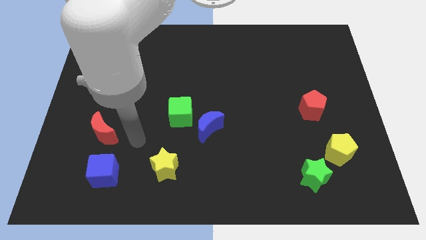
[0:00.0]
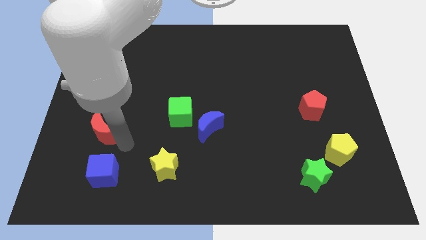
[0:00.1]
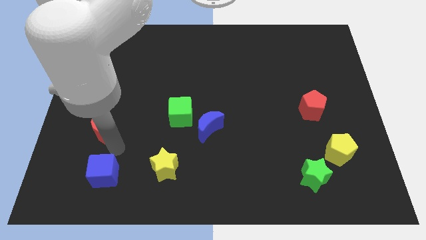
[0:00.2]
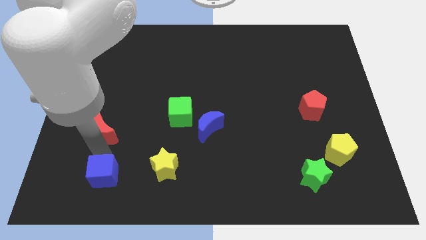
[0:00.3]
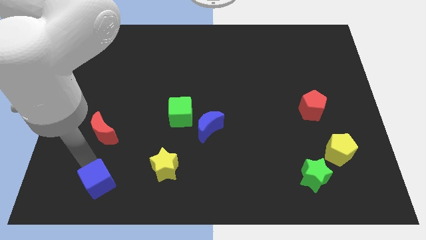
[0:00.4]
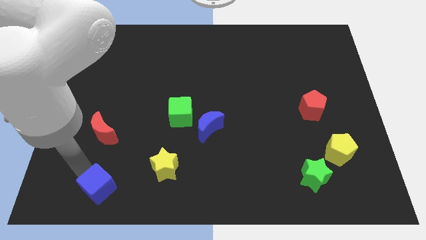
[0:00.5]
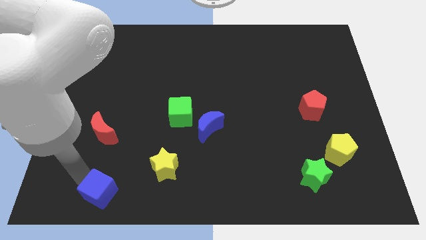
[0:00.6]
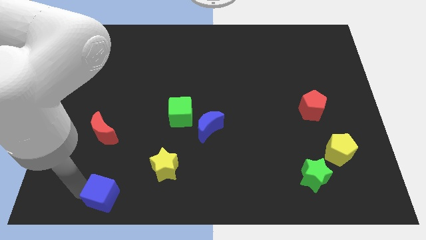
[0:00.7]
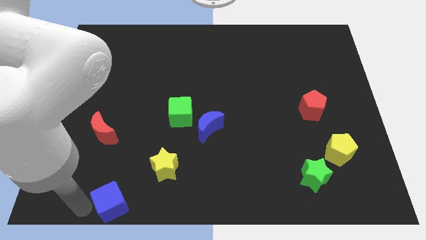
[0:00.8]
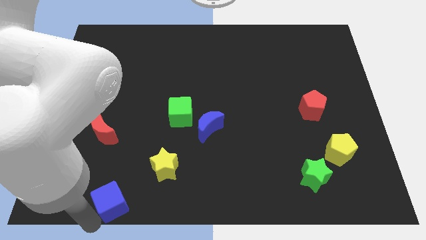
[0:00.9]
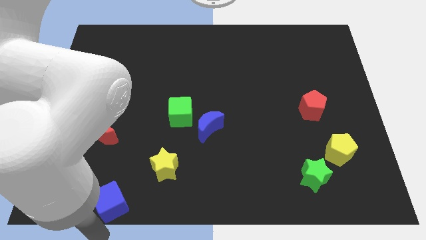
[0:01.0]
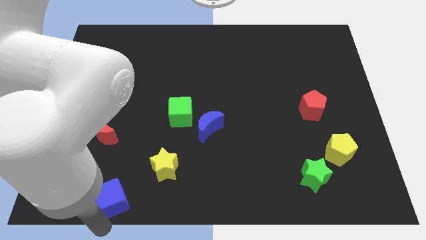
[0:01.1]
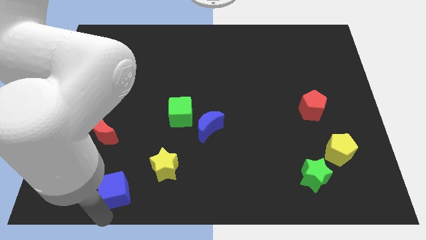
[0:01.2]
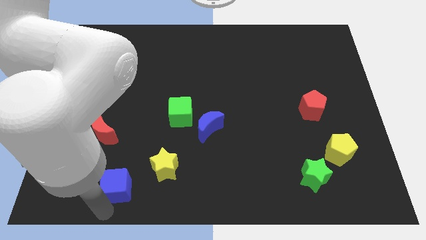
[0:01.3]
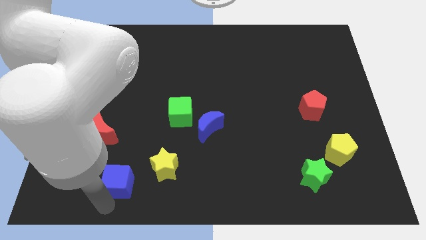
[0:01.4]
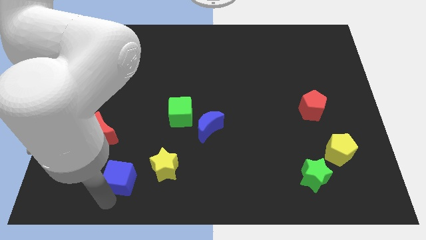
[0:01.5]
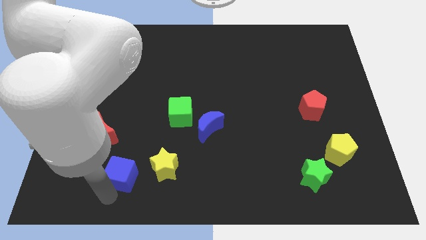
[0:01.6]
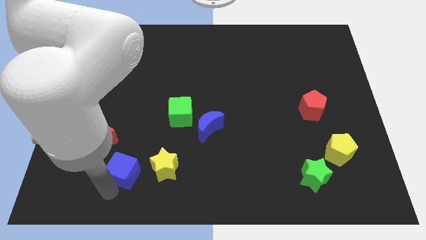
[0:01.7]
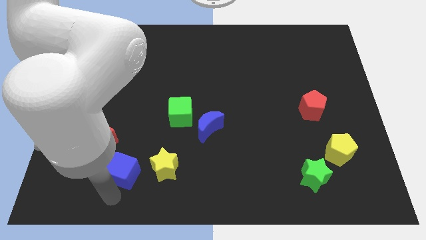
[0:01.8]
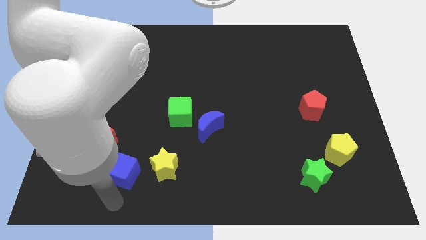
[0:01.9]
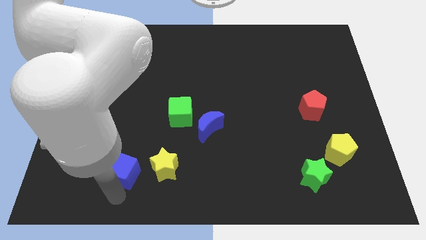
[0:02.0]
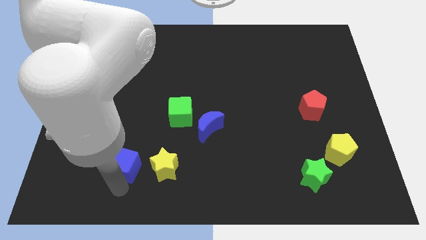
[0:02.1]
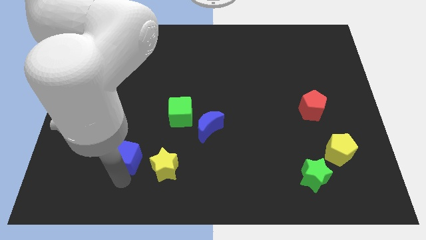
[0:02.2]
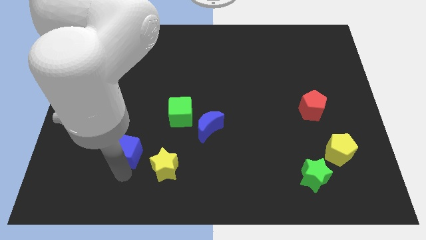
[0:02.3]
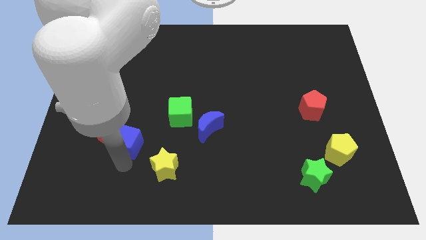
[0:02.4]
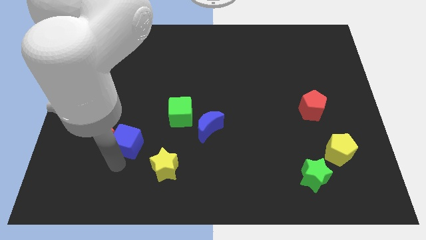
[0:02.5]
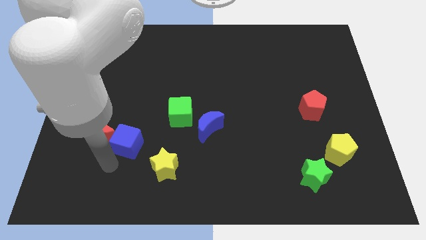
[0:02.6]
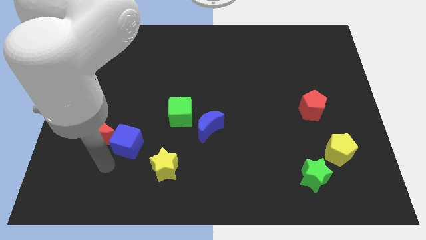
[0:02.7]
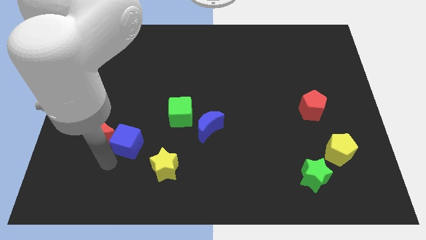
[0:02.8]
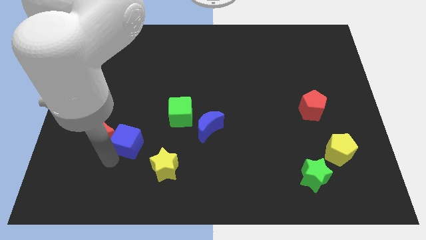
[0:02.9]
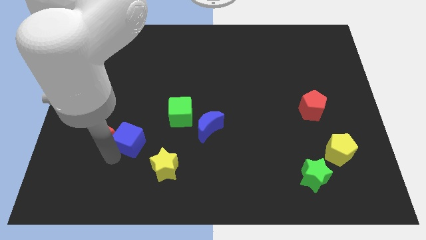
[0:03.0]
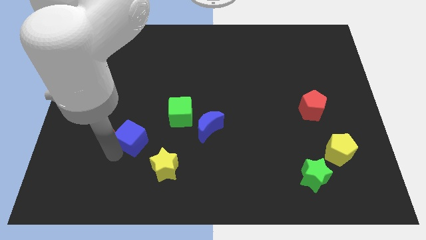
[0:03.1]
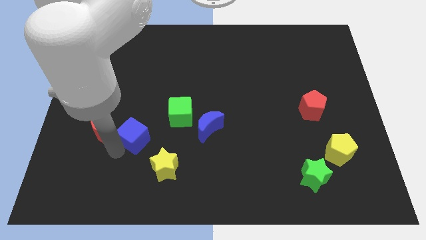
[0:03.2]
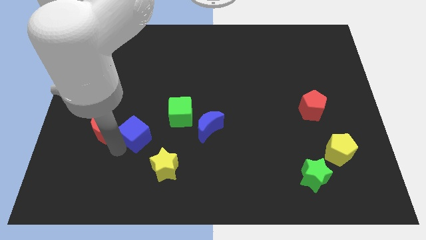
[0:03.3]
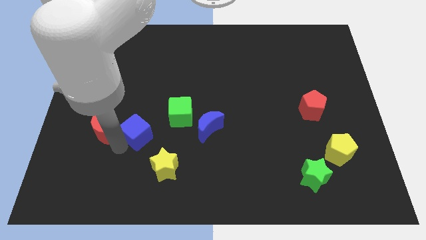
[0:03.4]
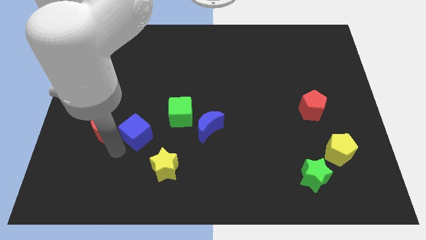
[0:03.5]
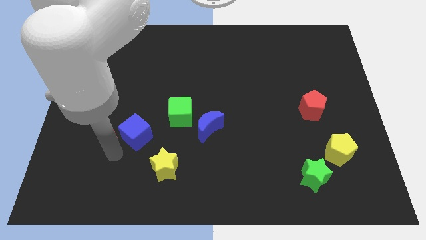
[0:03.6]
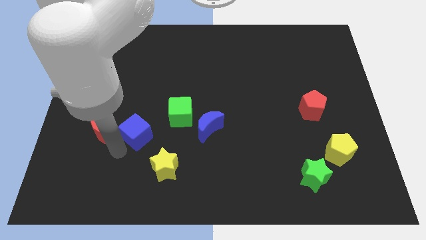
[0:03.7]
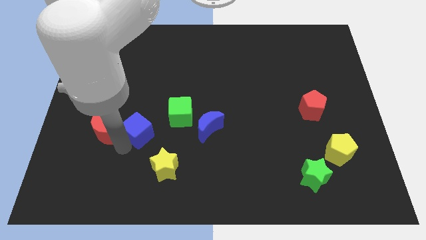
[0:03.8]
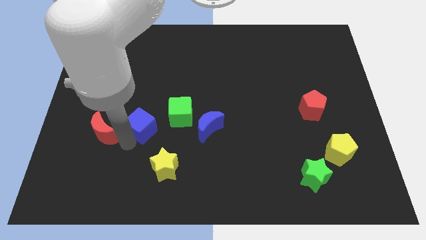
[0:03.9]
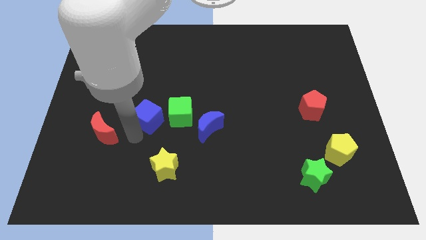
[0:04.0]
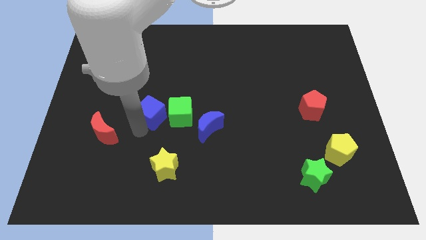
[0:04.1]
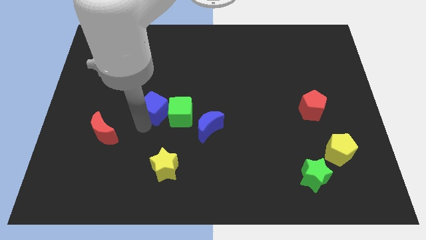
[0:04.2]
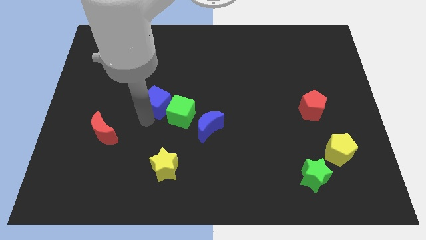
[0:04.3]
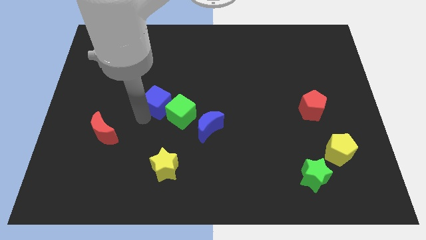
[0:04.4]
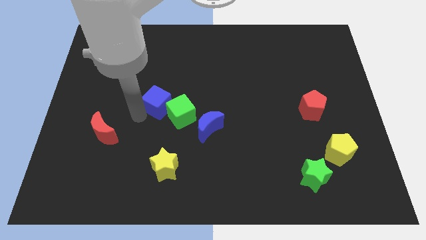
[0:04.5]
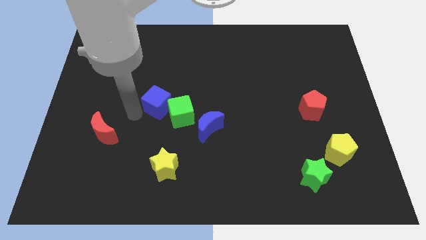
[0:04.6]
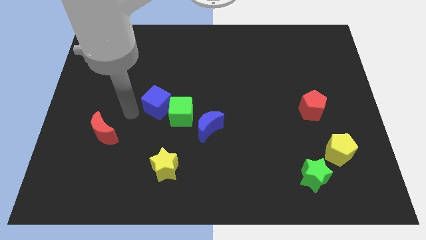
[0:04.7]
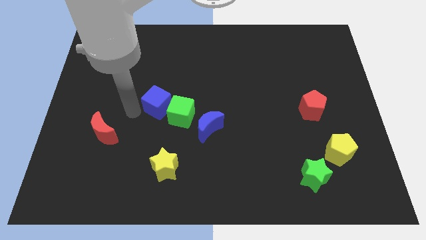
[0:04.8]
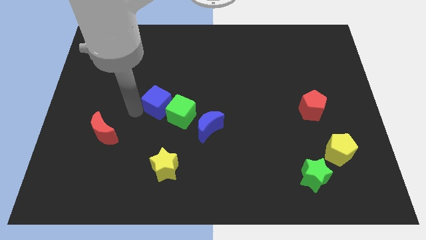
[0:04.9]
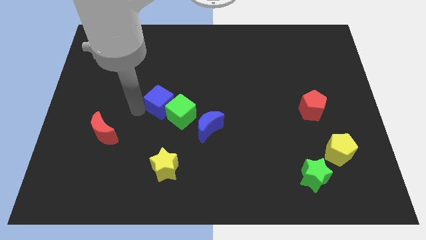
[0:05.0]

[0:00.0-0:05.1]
slide the blue cube to the middle
